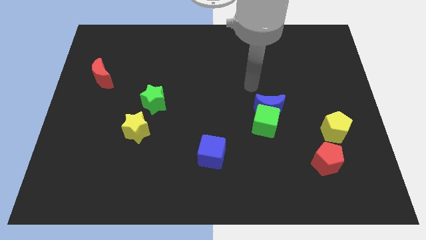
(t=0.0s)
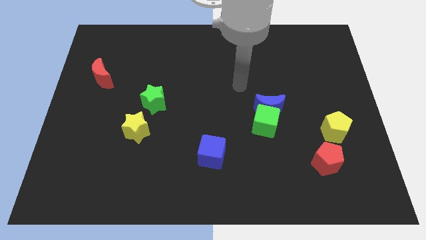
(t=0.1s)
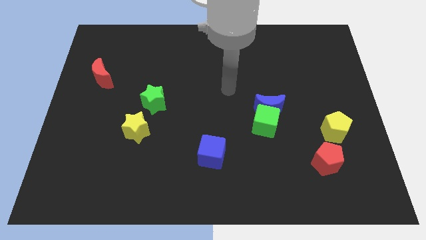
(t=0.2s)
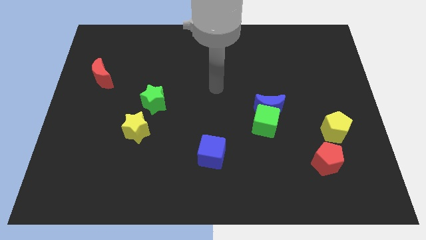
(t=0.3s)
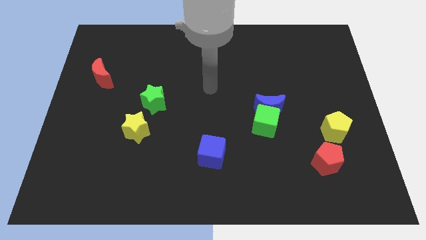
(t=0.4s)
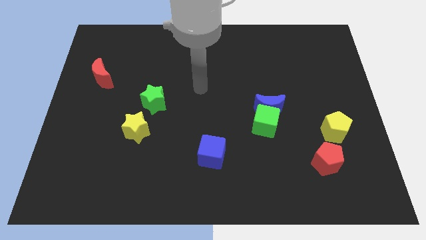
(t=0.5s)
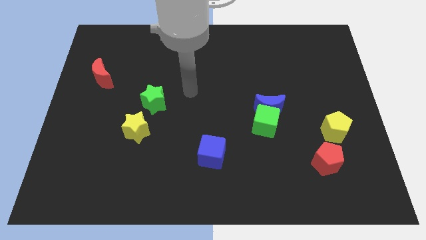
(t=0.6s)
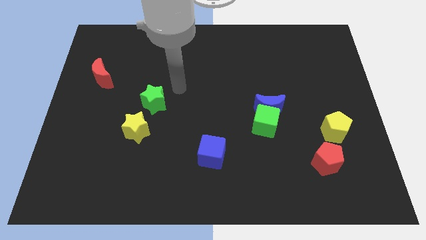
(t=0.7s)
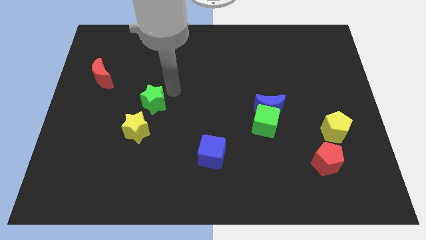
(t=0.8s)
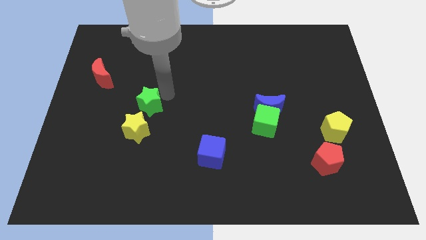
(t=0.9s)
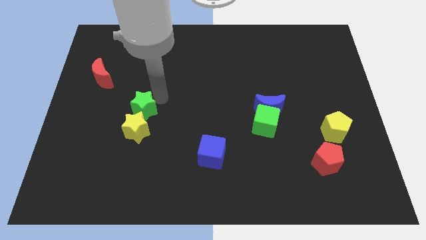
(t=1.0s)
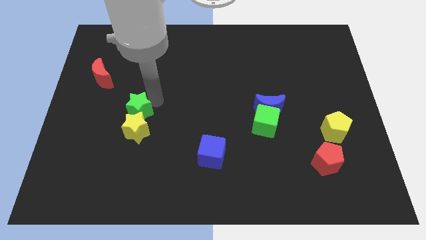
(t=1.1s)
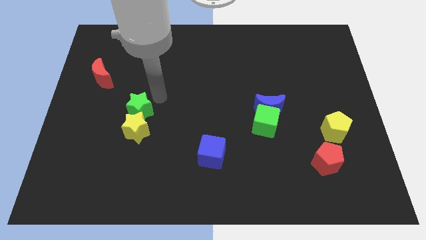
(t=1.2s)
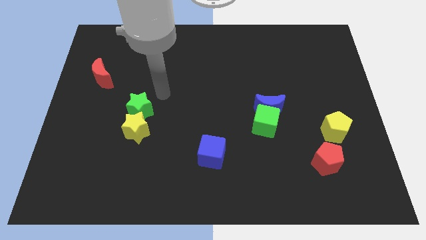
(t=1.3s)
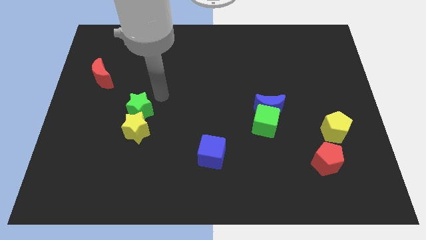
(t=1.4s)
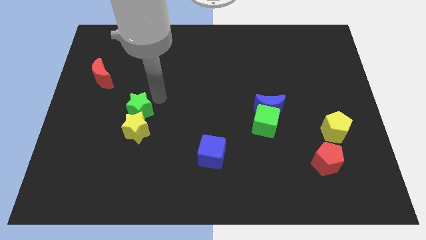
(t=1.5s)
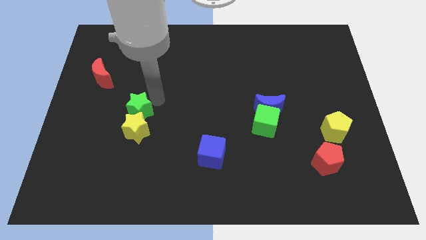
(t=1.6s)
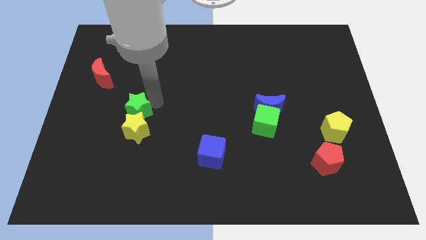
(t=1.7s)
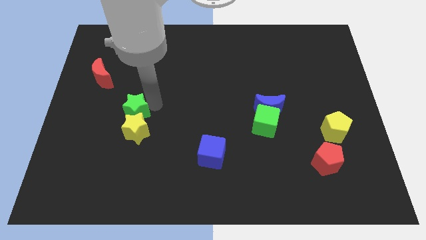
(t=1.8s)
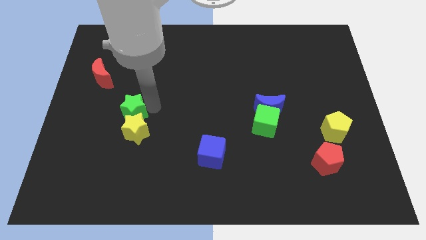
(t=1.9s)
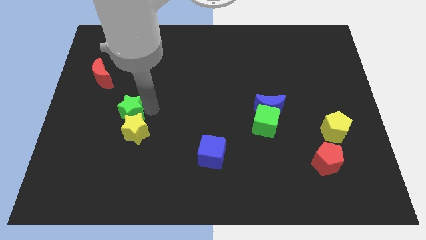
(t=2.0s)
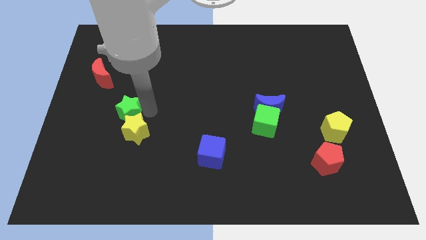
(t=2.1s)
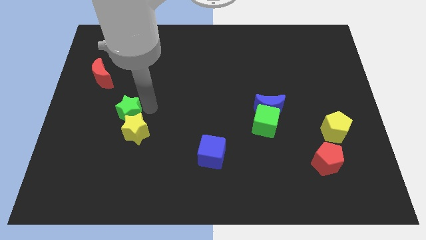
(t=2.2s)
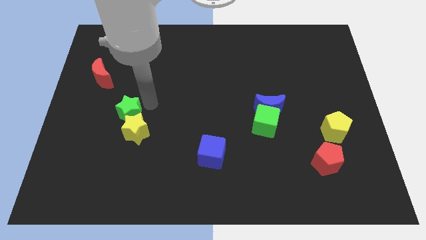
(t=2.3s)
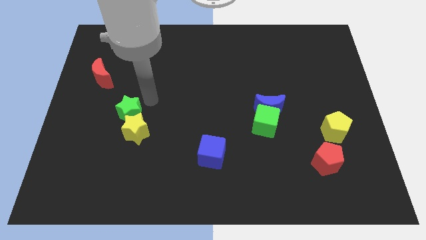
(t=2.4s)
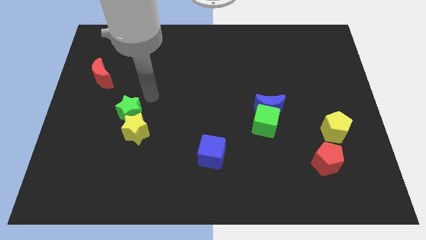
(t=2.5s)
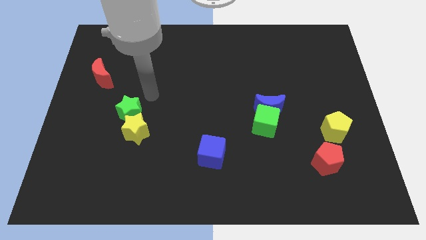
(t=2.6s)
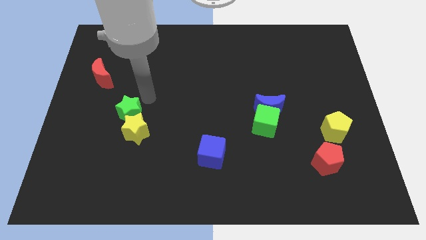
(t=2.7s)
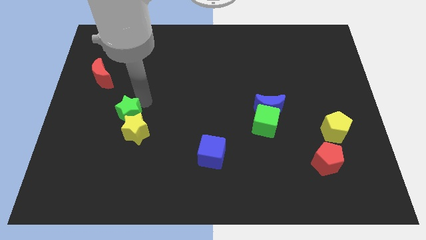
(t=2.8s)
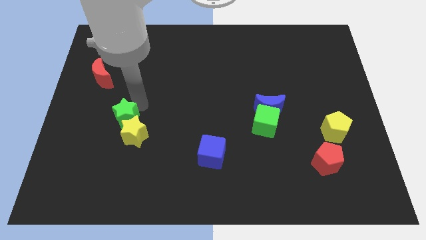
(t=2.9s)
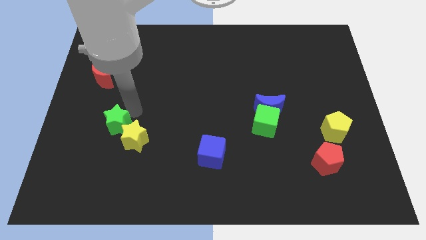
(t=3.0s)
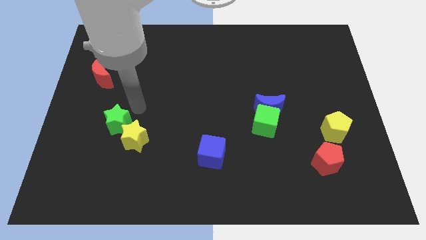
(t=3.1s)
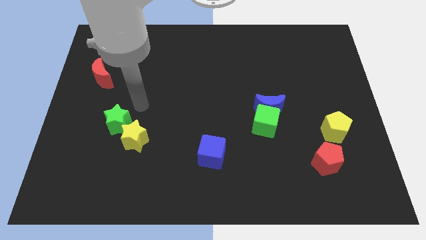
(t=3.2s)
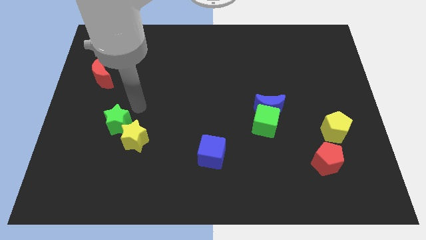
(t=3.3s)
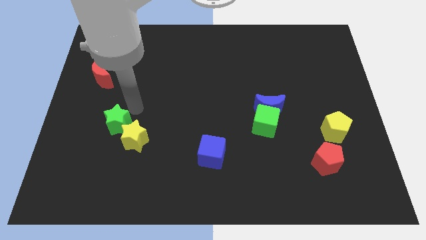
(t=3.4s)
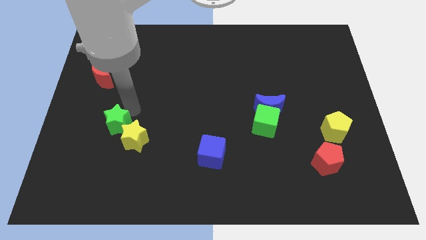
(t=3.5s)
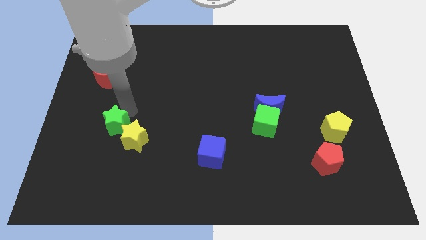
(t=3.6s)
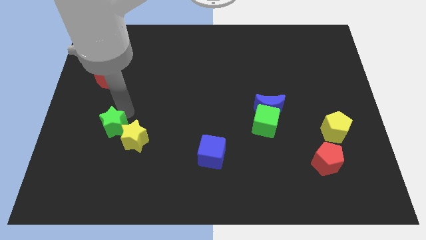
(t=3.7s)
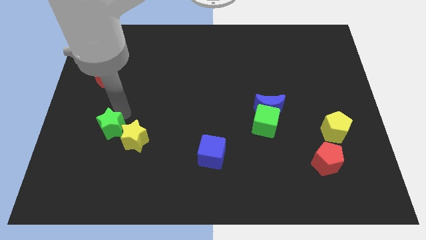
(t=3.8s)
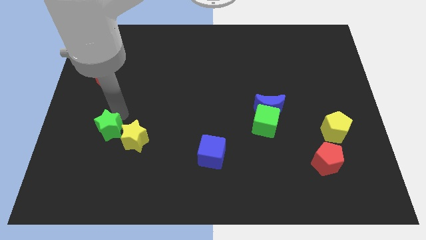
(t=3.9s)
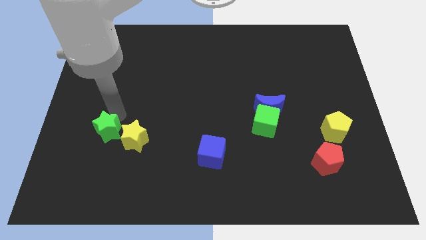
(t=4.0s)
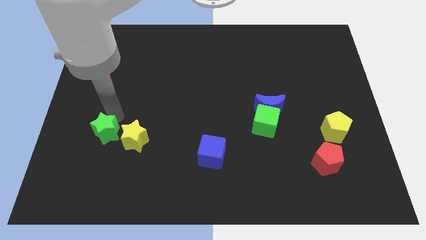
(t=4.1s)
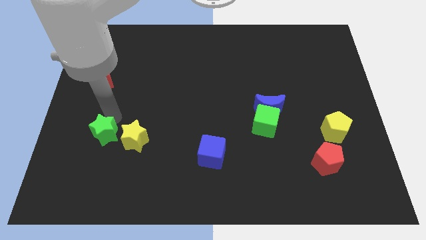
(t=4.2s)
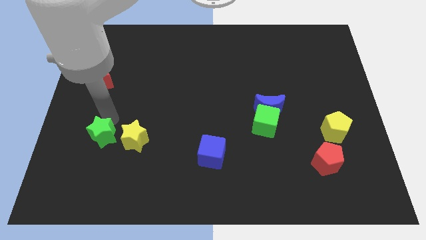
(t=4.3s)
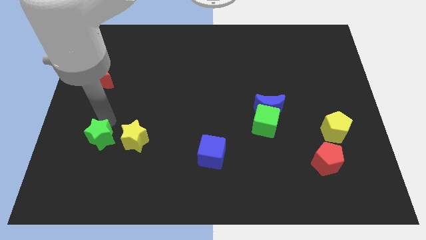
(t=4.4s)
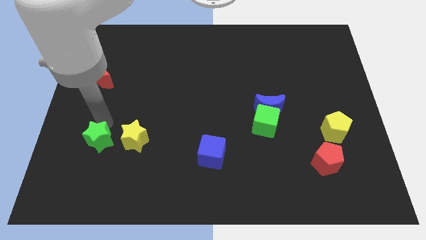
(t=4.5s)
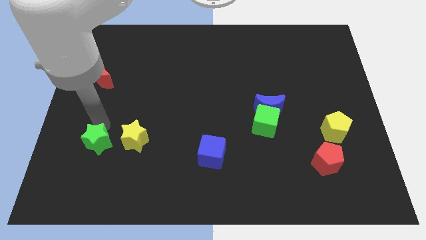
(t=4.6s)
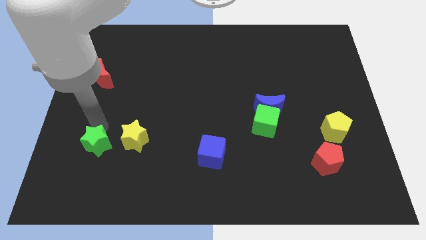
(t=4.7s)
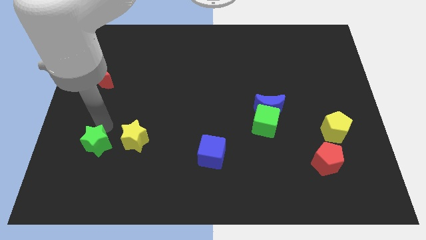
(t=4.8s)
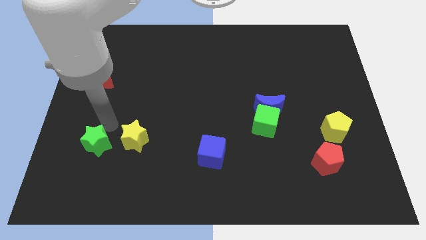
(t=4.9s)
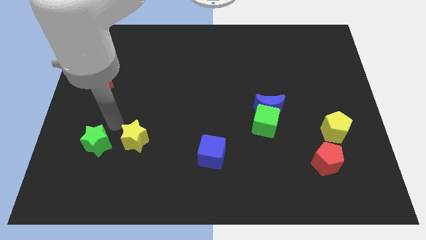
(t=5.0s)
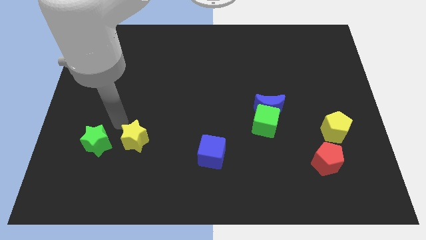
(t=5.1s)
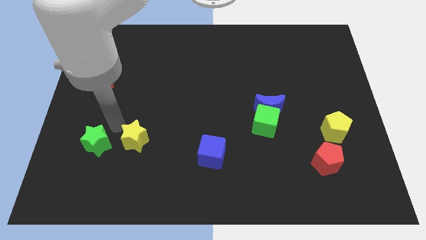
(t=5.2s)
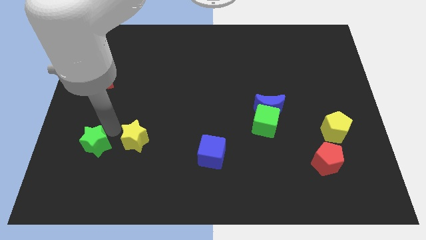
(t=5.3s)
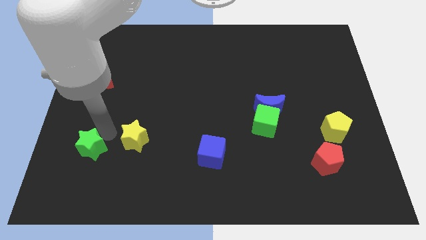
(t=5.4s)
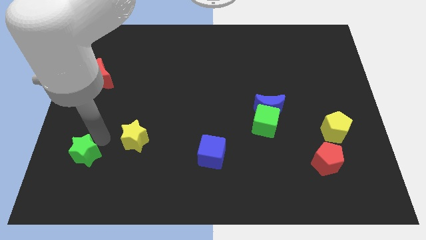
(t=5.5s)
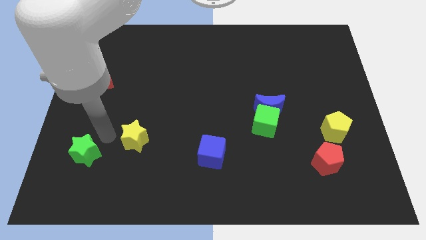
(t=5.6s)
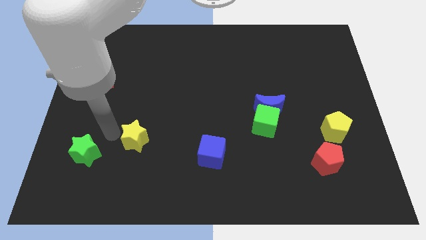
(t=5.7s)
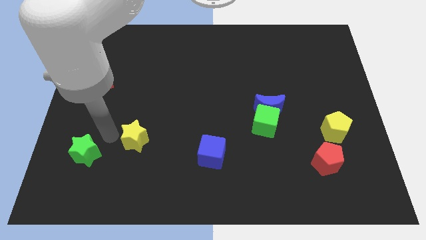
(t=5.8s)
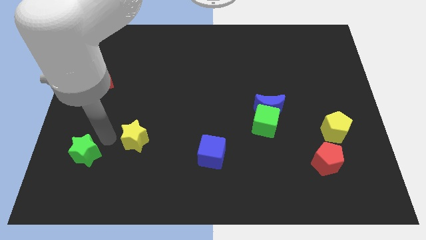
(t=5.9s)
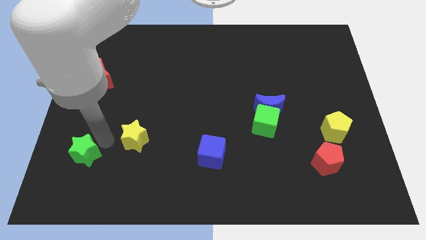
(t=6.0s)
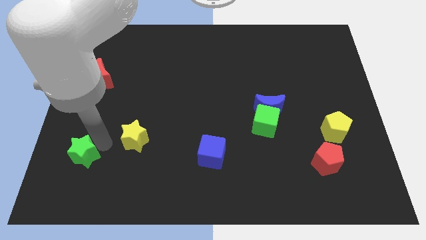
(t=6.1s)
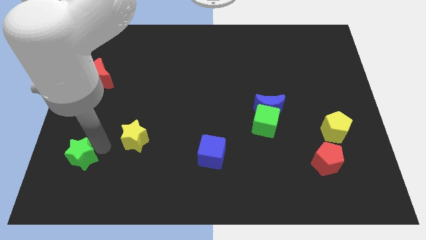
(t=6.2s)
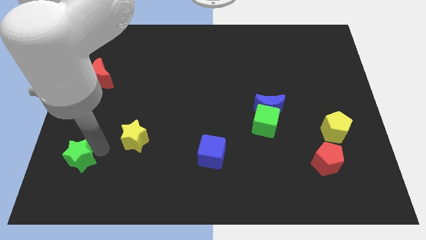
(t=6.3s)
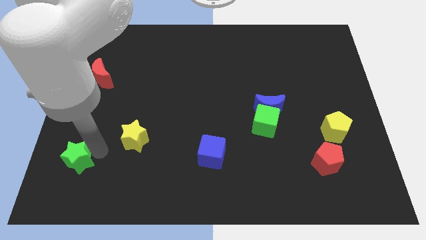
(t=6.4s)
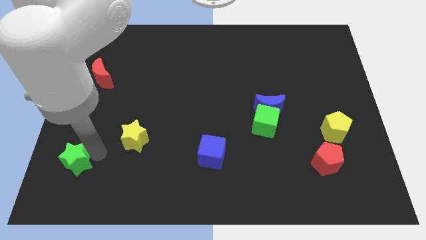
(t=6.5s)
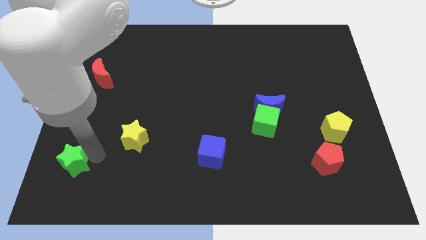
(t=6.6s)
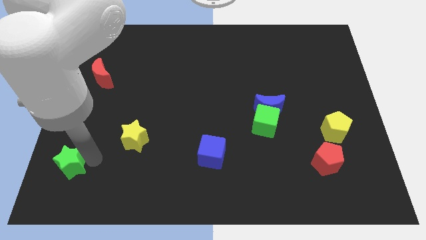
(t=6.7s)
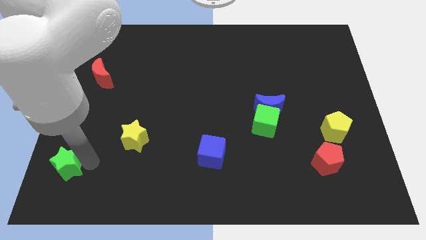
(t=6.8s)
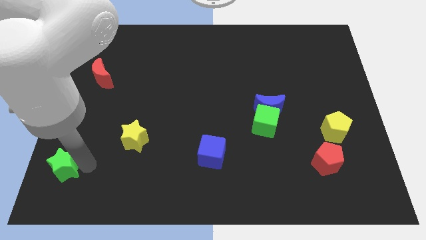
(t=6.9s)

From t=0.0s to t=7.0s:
move the green star to the bottom left
